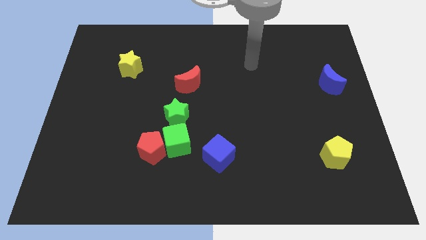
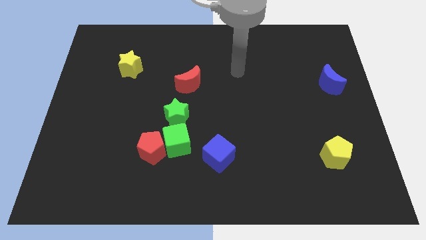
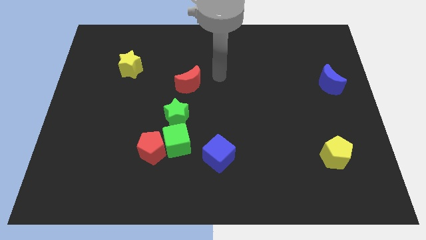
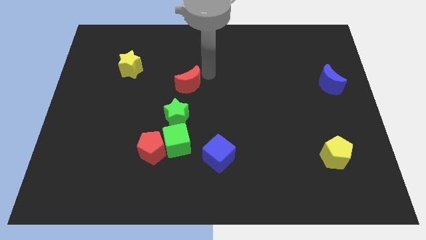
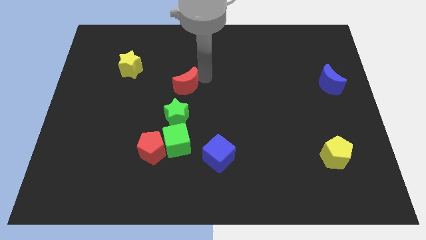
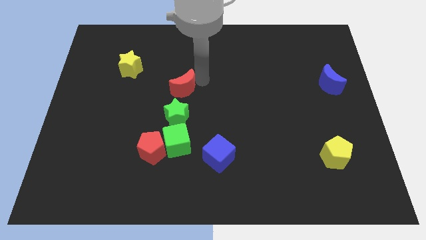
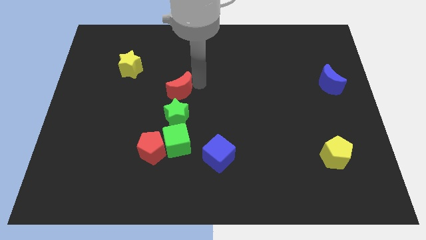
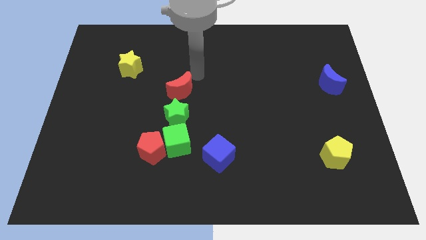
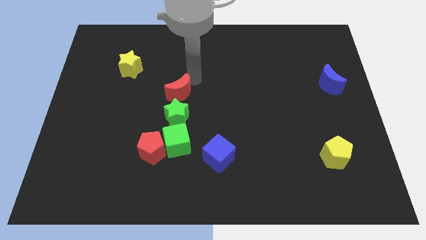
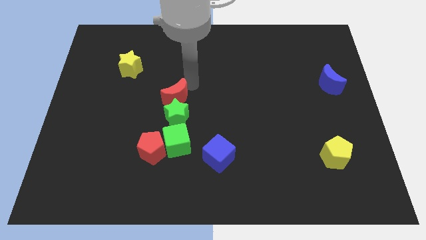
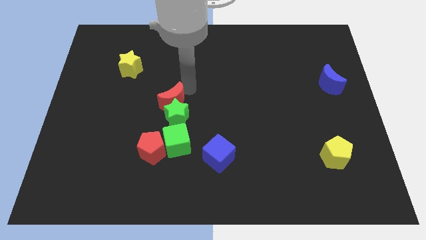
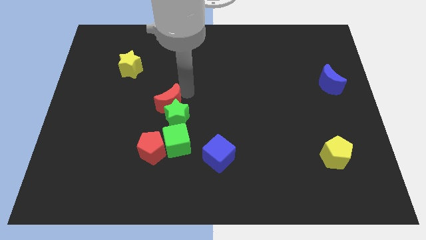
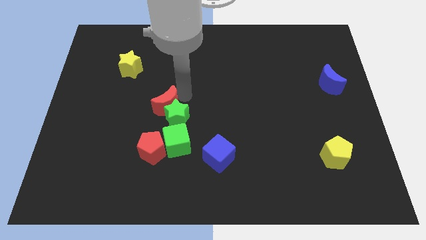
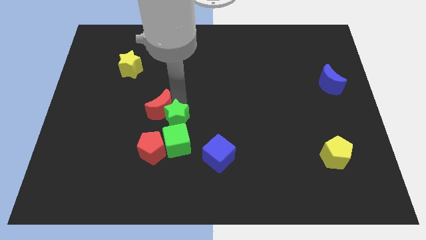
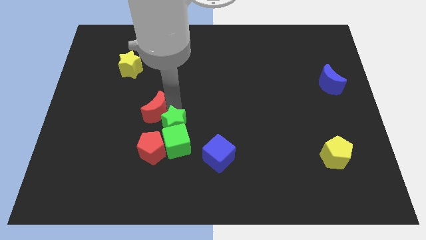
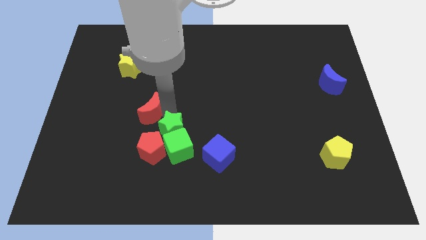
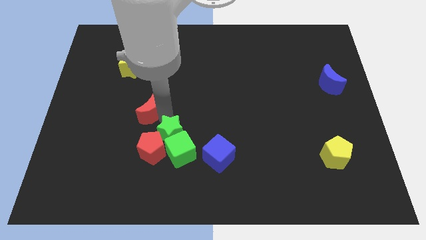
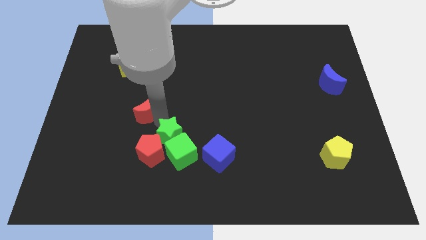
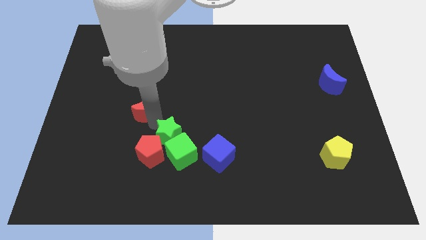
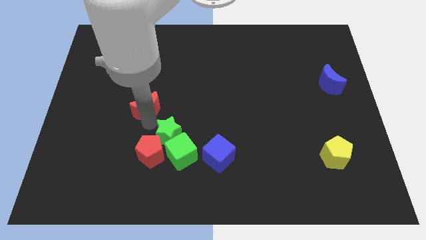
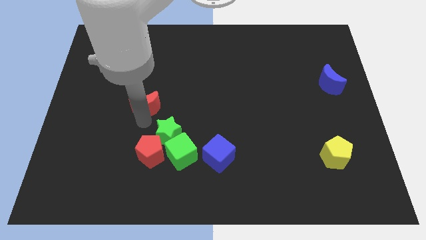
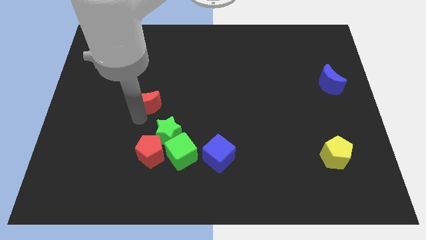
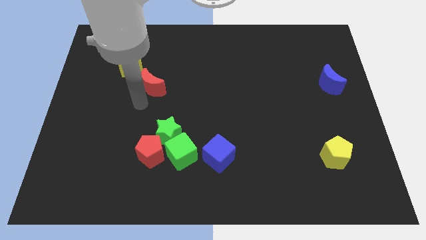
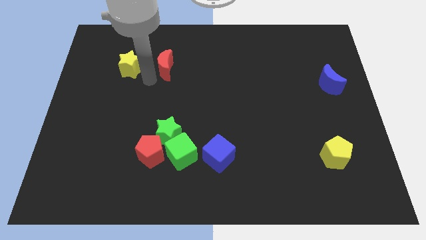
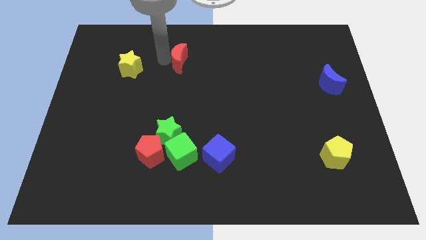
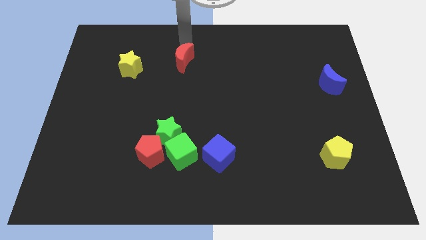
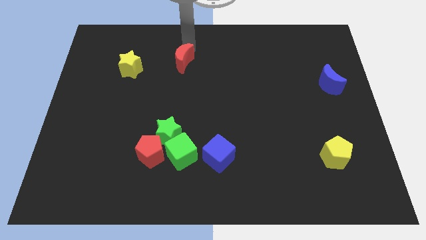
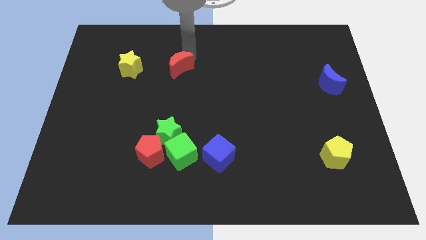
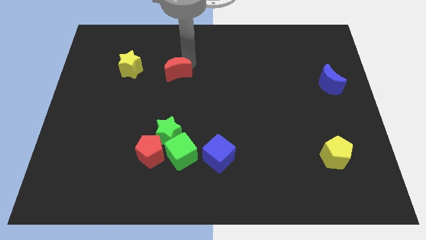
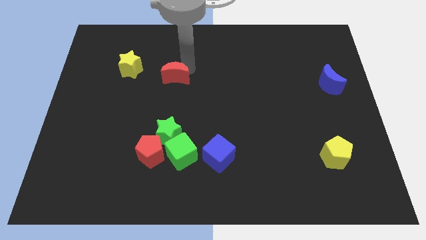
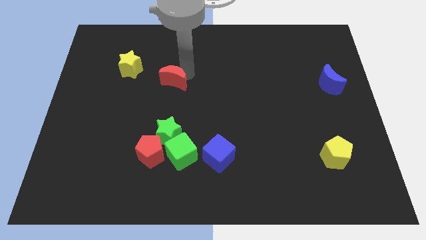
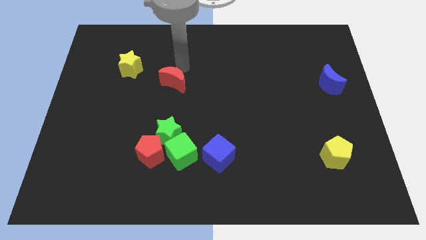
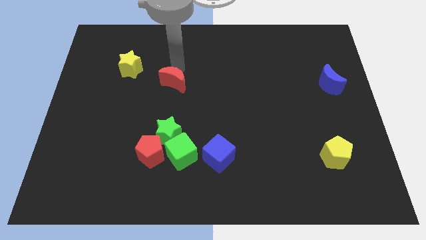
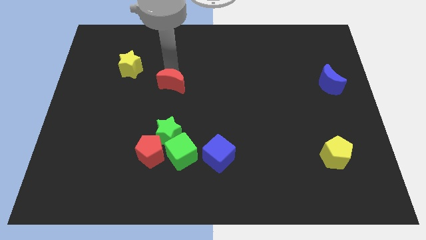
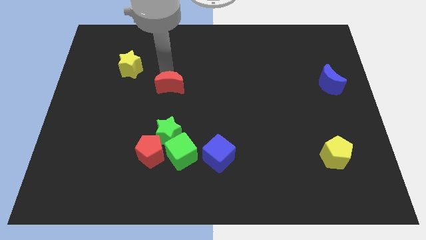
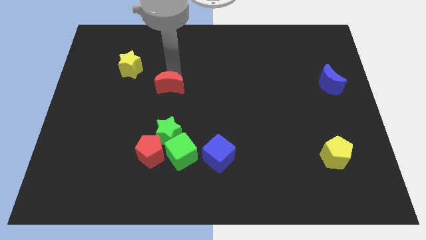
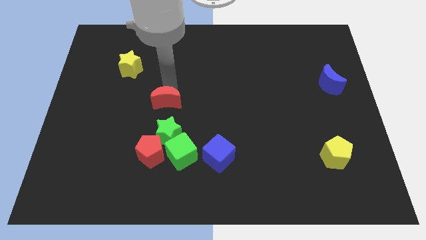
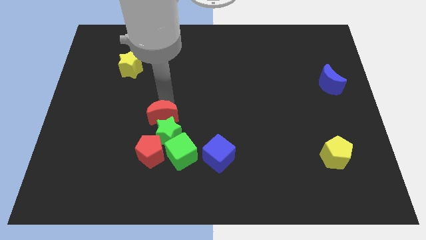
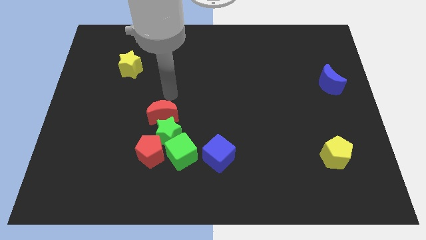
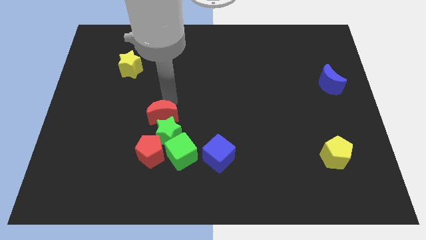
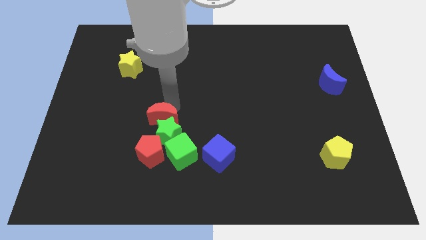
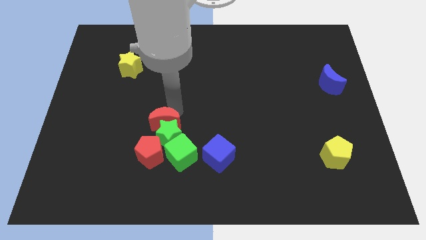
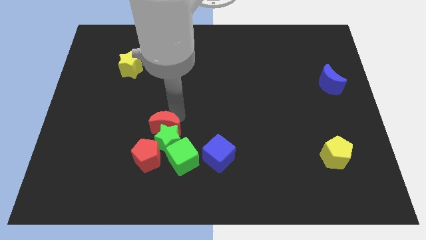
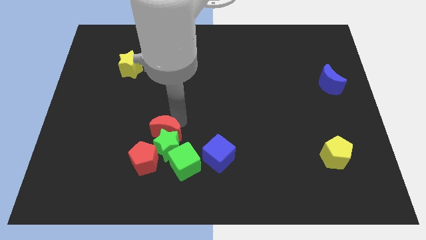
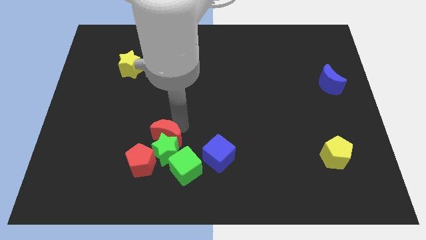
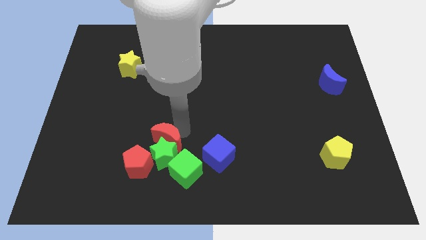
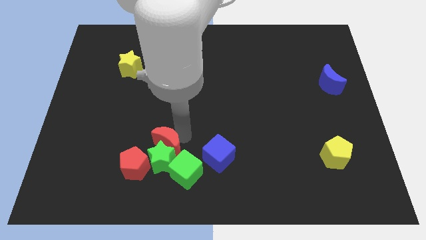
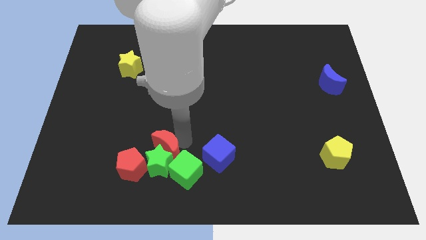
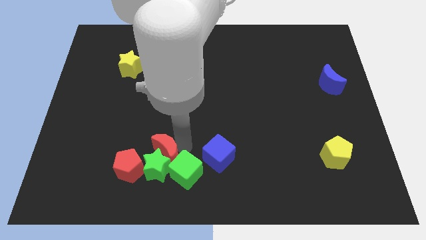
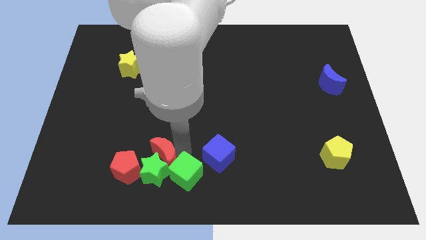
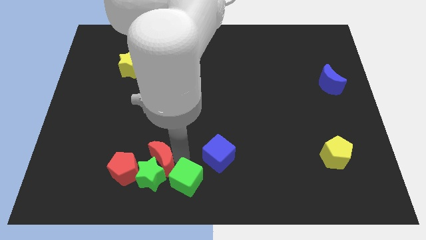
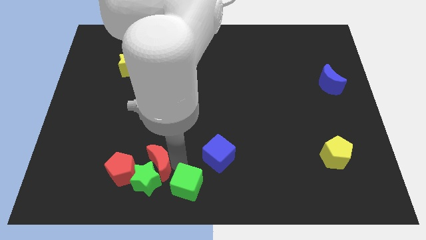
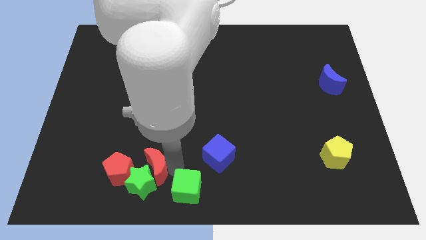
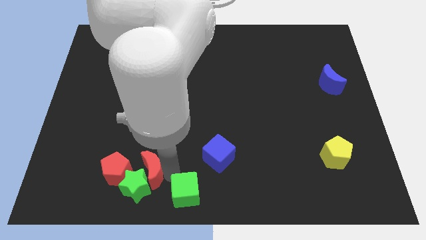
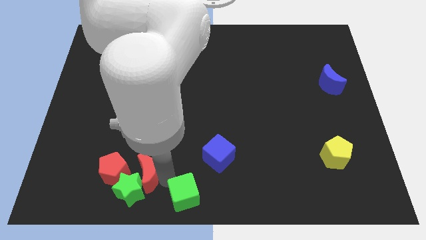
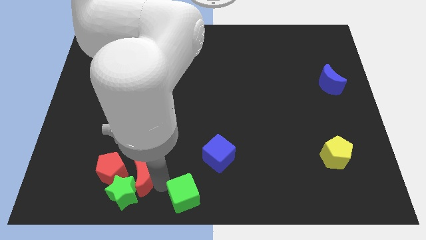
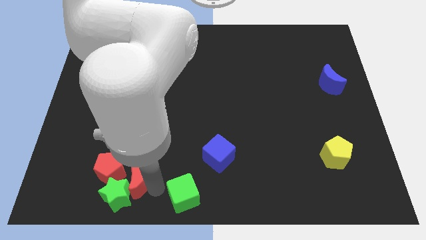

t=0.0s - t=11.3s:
slide the red moon to the red pentagon

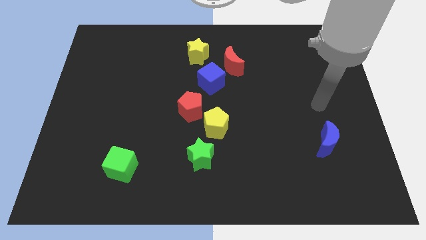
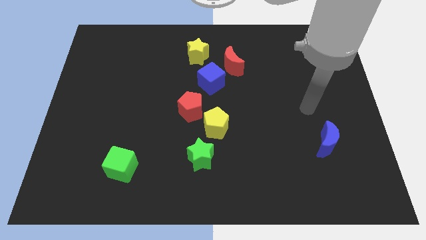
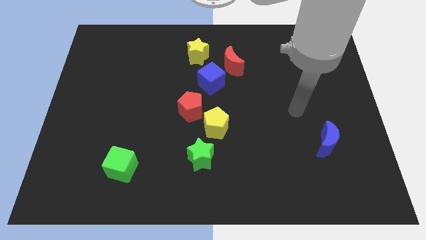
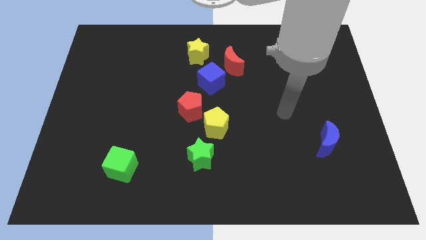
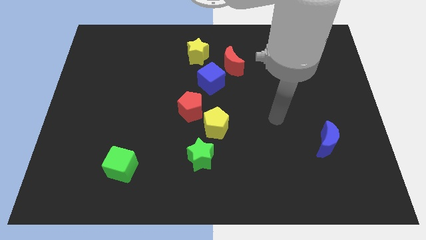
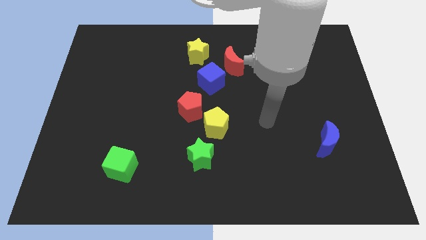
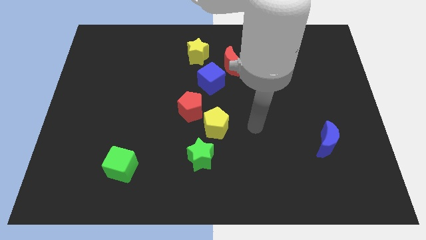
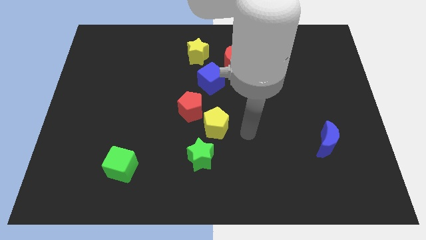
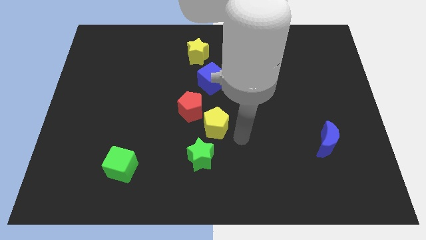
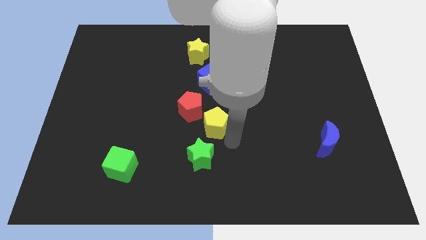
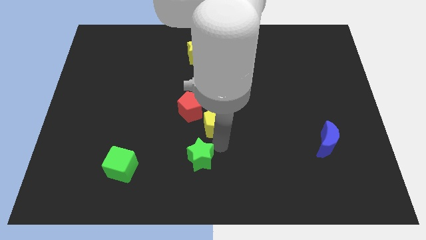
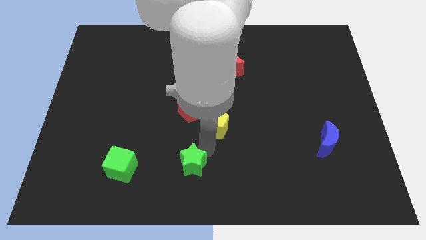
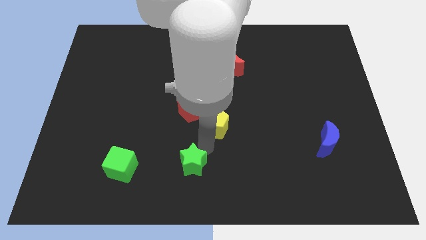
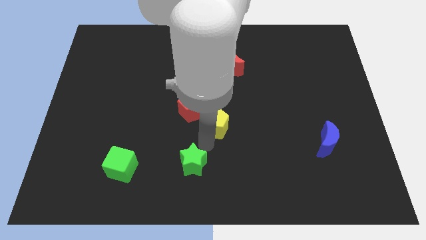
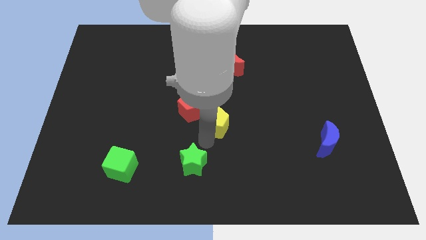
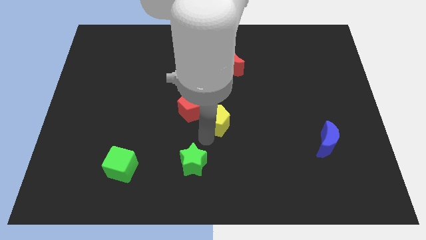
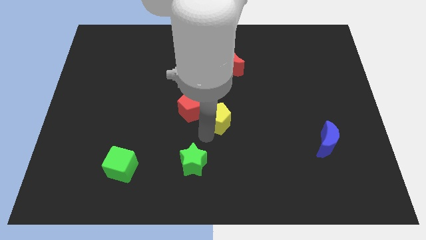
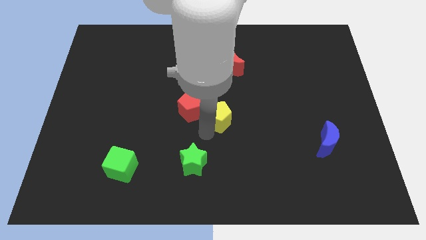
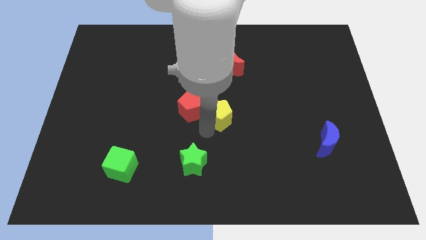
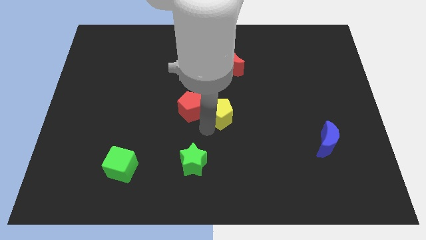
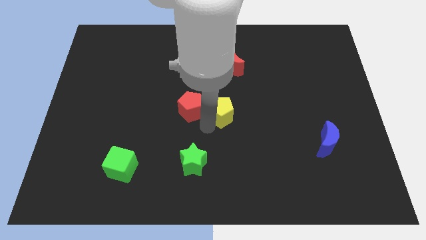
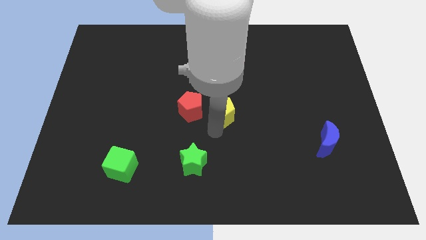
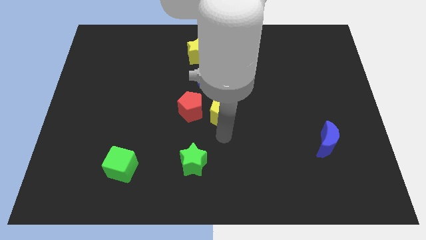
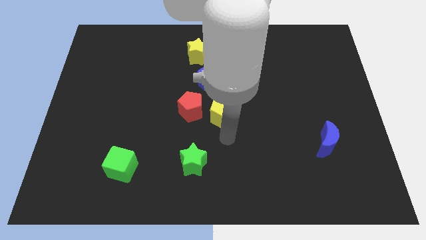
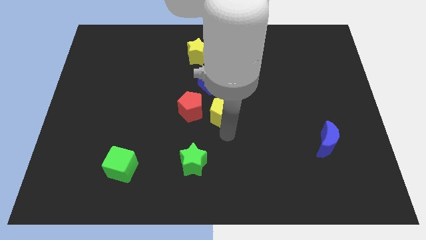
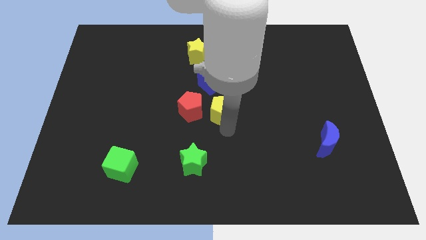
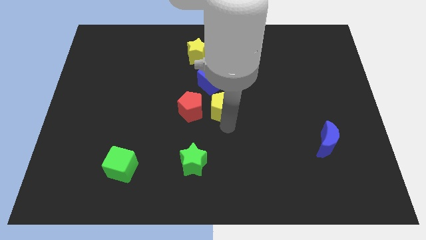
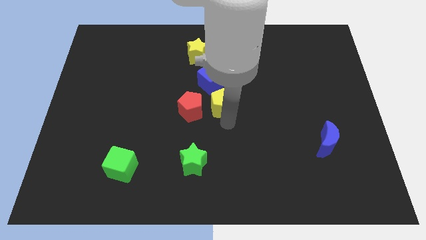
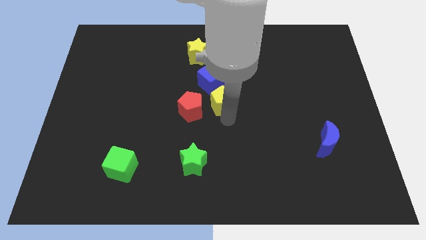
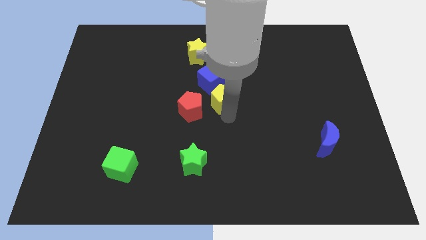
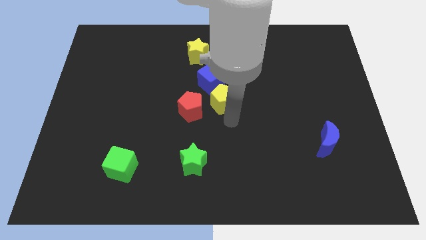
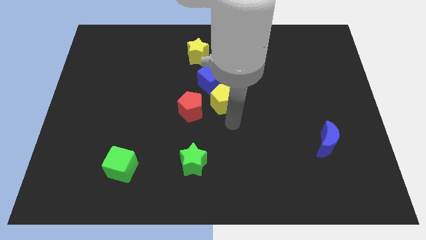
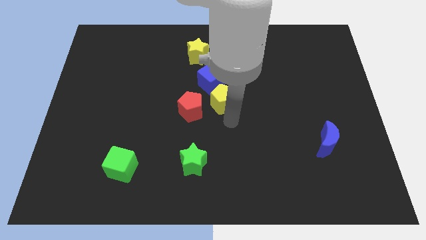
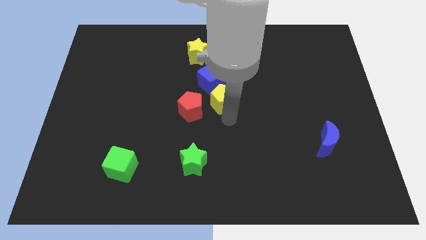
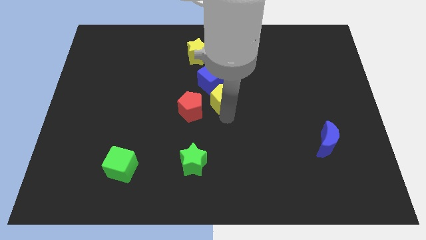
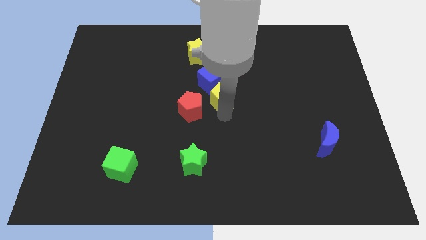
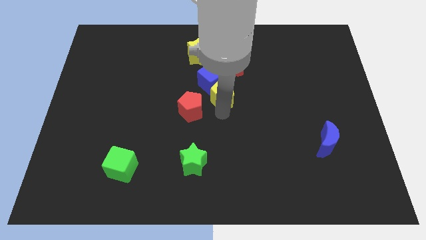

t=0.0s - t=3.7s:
slide the yellow pentagon to the blue cube
